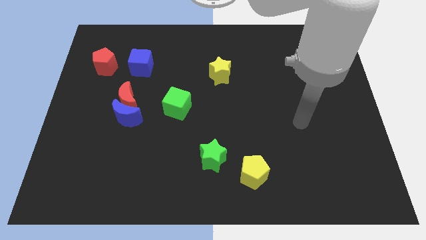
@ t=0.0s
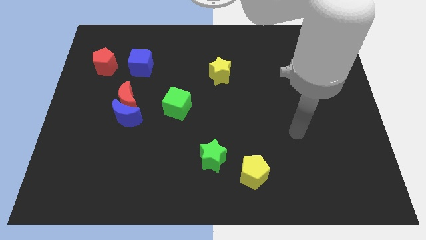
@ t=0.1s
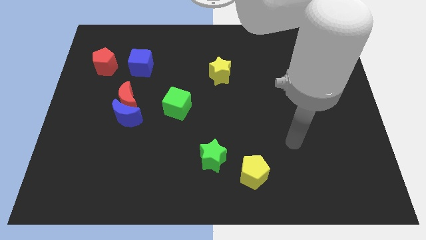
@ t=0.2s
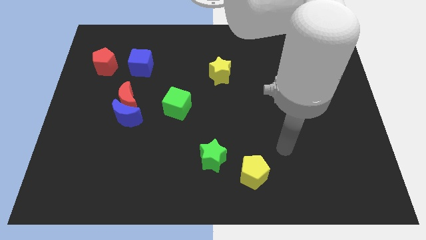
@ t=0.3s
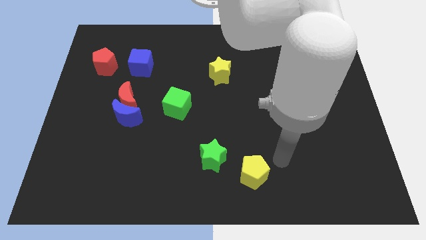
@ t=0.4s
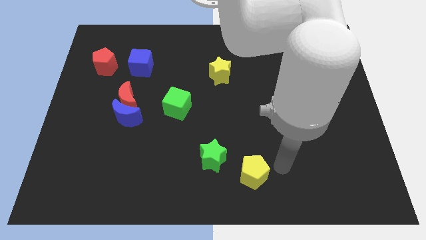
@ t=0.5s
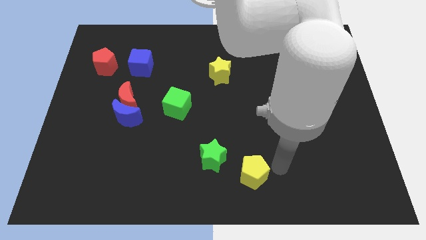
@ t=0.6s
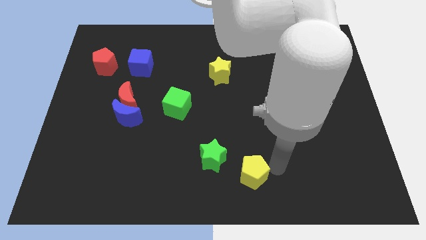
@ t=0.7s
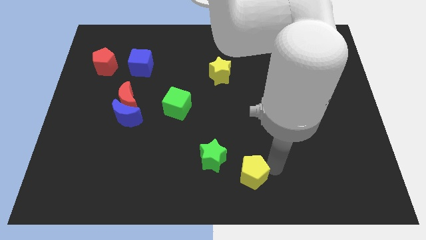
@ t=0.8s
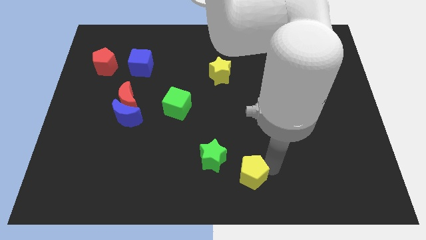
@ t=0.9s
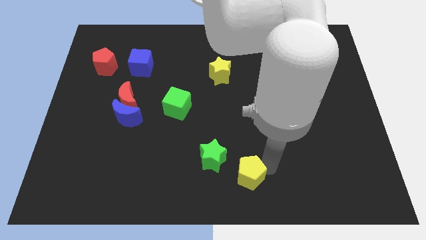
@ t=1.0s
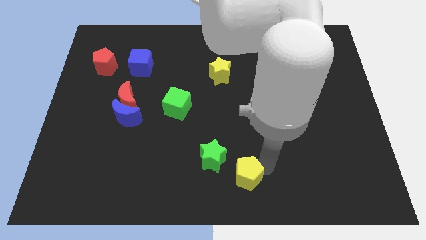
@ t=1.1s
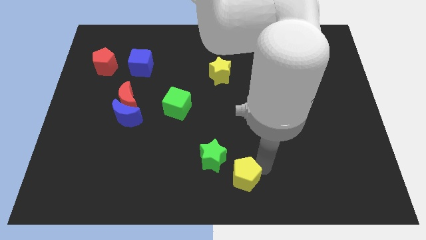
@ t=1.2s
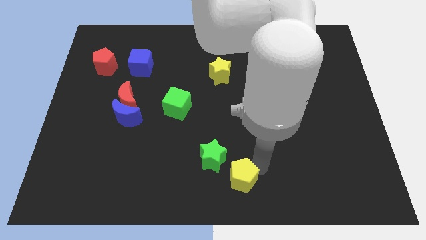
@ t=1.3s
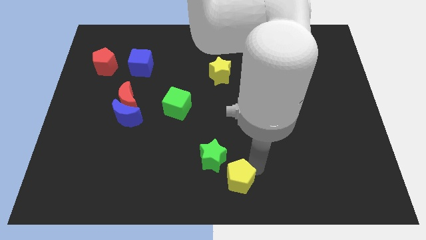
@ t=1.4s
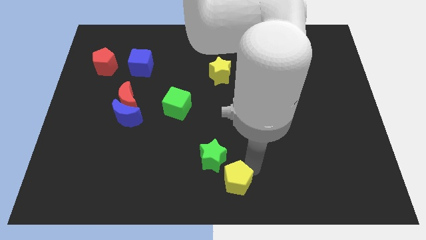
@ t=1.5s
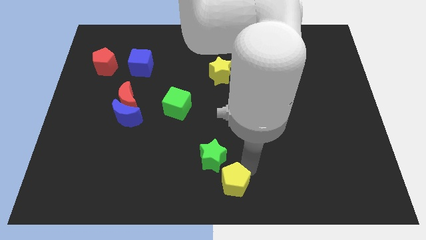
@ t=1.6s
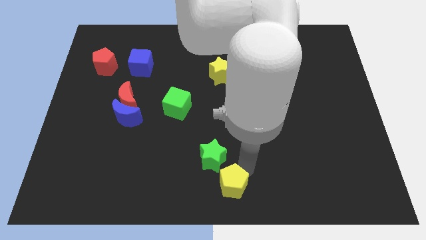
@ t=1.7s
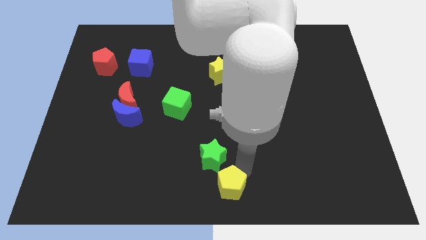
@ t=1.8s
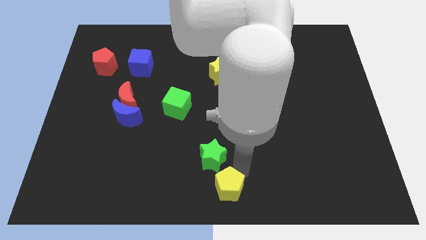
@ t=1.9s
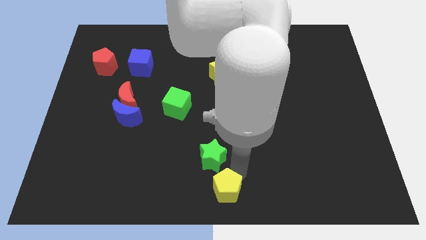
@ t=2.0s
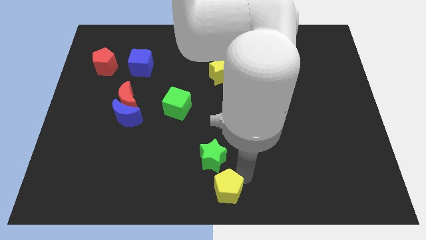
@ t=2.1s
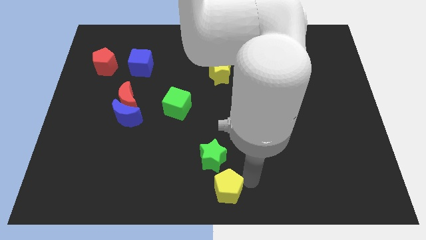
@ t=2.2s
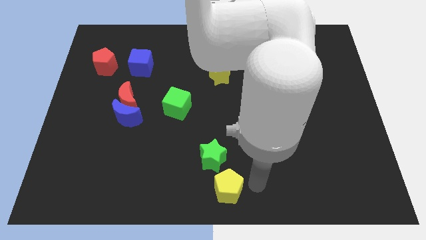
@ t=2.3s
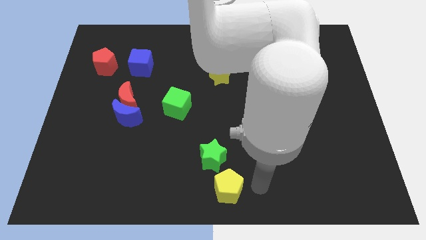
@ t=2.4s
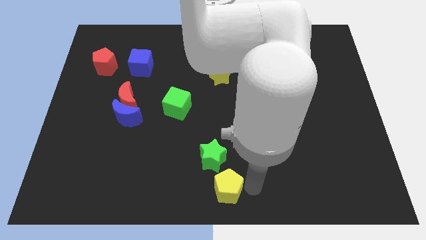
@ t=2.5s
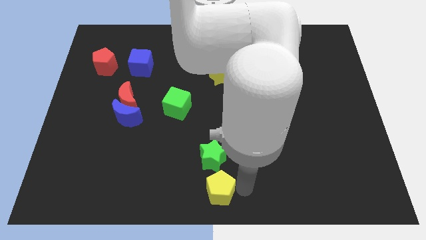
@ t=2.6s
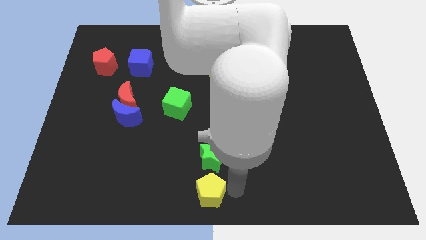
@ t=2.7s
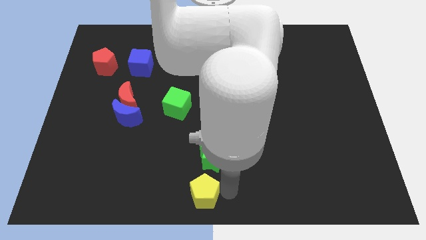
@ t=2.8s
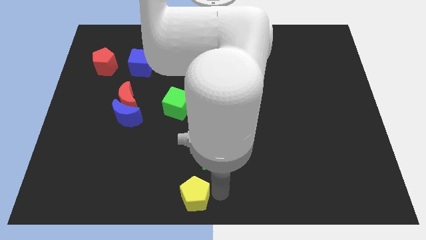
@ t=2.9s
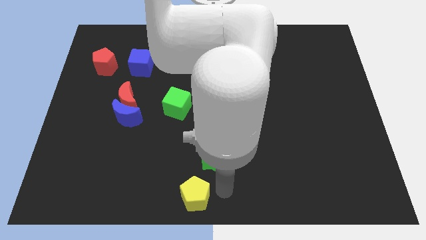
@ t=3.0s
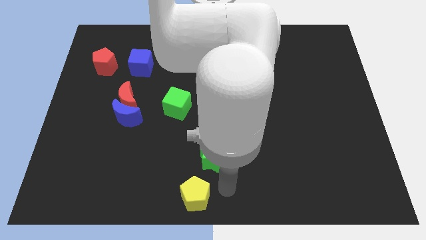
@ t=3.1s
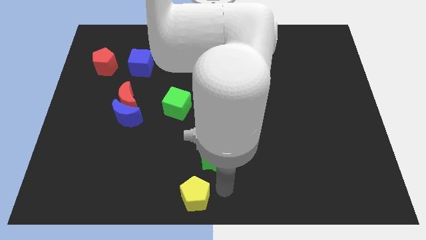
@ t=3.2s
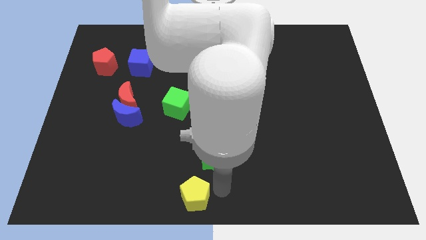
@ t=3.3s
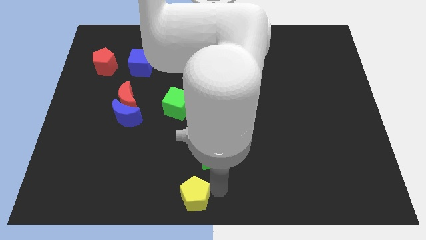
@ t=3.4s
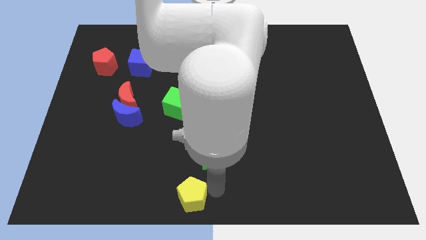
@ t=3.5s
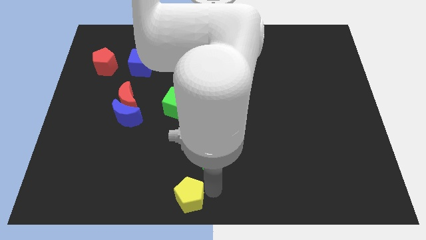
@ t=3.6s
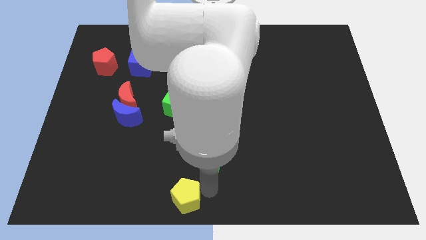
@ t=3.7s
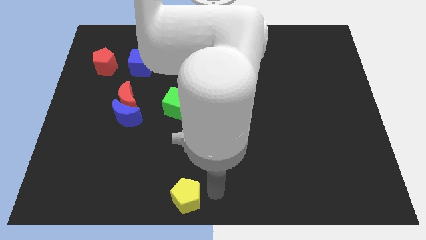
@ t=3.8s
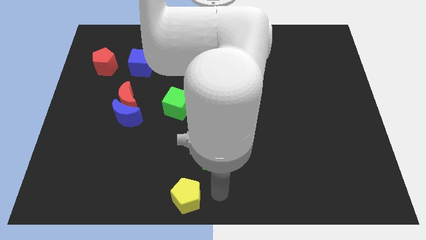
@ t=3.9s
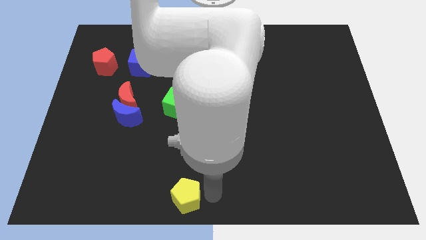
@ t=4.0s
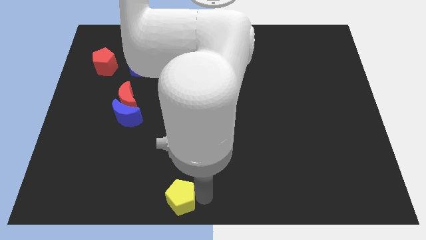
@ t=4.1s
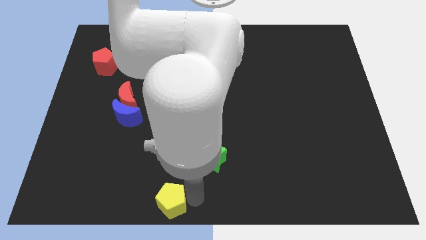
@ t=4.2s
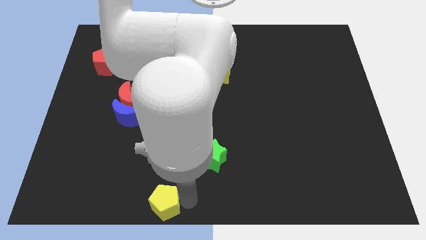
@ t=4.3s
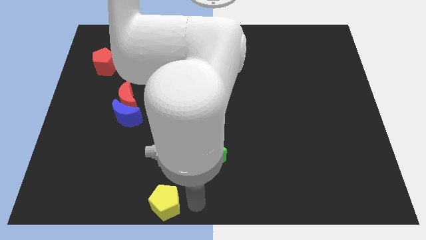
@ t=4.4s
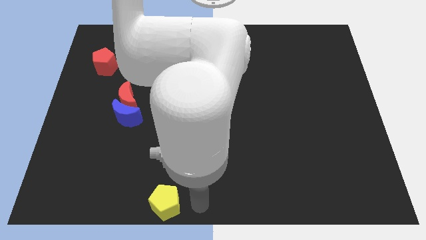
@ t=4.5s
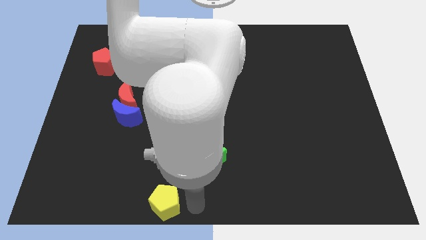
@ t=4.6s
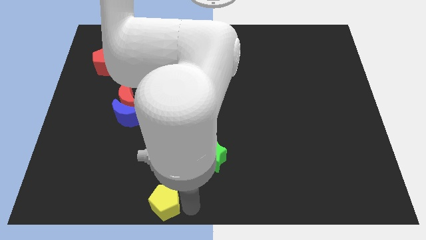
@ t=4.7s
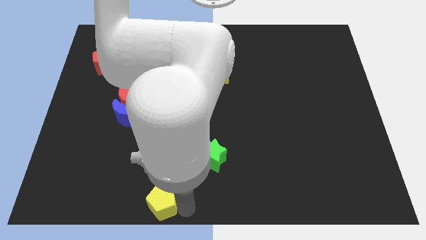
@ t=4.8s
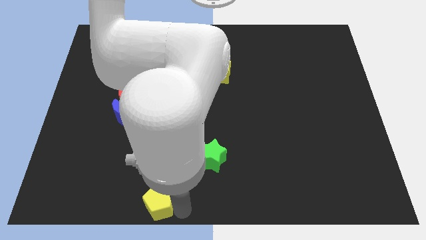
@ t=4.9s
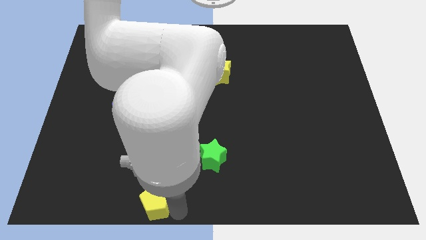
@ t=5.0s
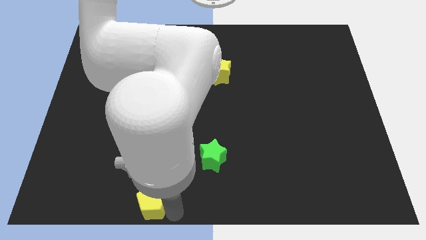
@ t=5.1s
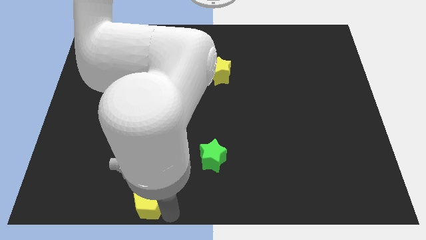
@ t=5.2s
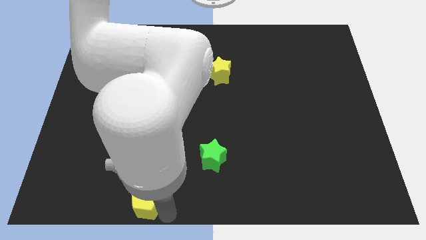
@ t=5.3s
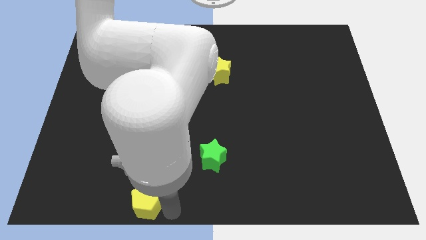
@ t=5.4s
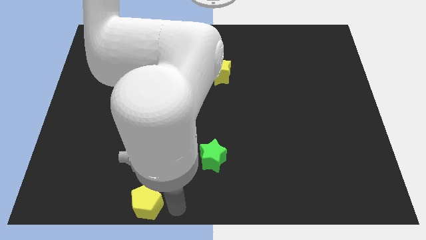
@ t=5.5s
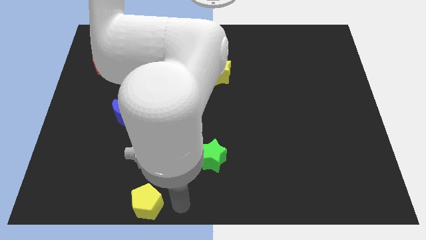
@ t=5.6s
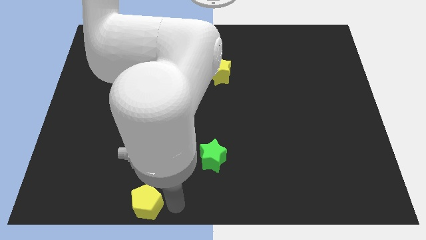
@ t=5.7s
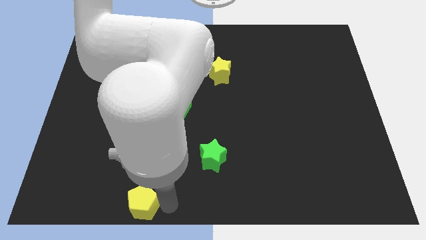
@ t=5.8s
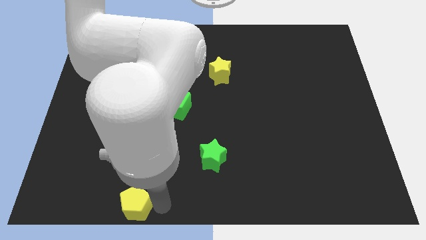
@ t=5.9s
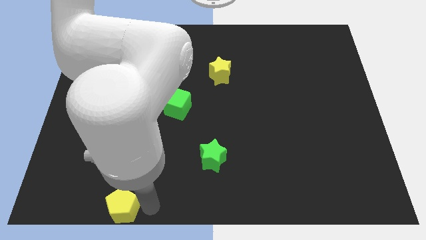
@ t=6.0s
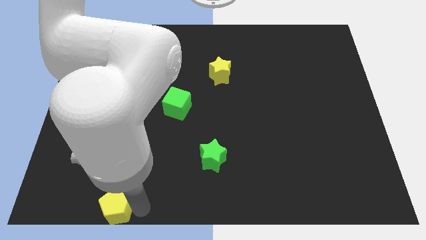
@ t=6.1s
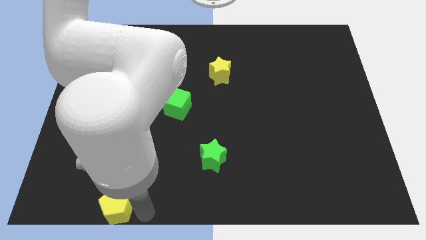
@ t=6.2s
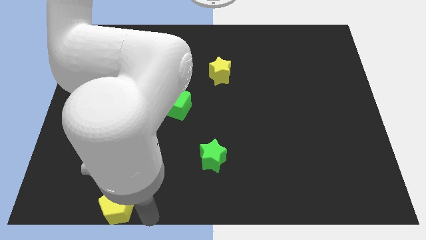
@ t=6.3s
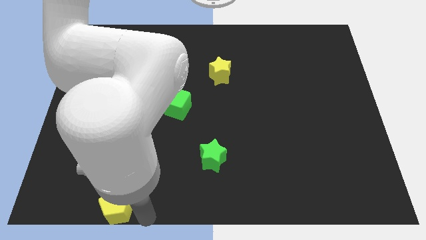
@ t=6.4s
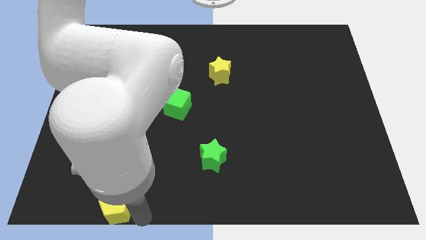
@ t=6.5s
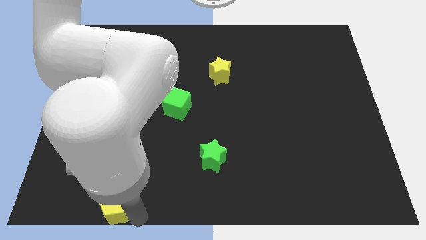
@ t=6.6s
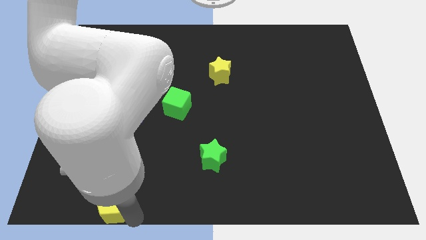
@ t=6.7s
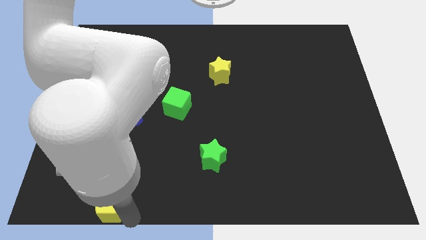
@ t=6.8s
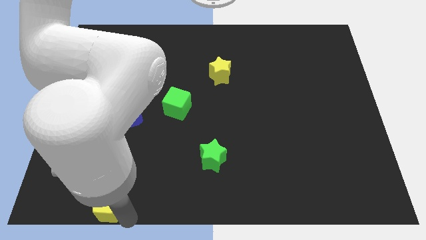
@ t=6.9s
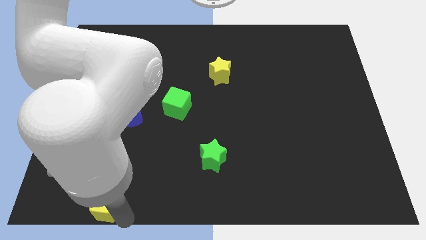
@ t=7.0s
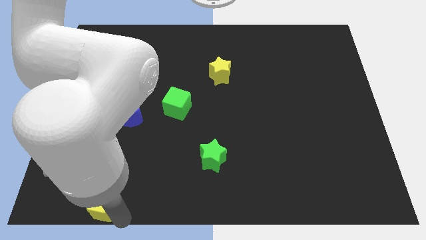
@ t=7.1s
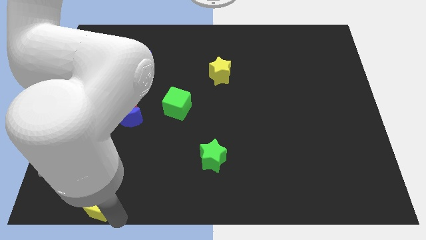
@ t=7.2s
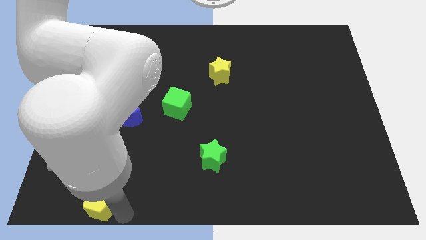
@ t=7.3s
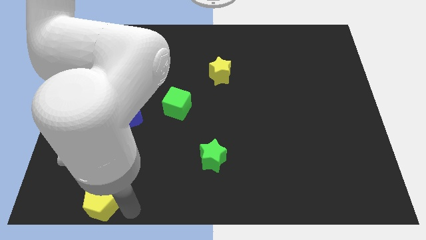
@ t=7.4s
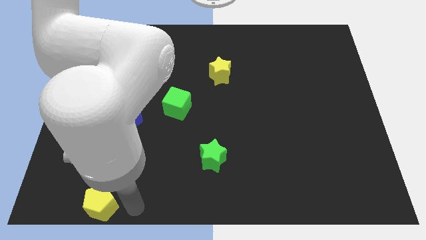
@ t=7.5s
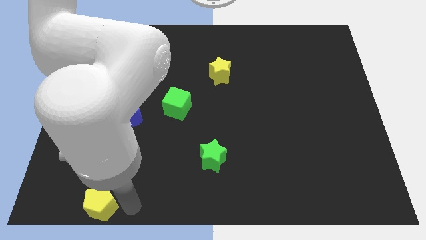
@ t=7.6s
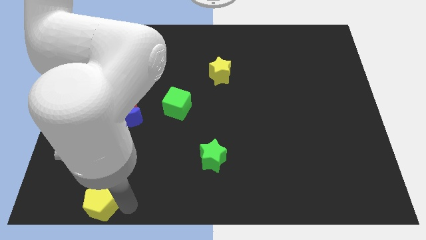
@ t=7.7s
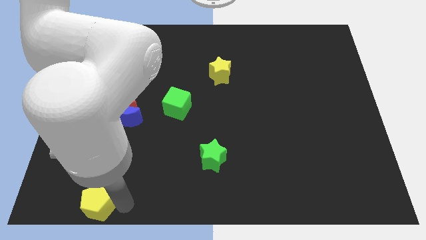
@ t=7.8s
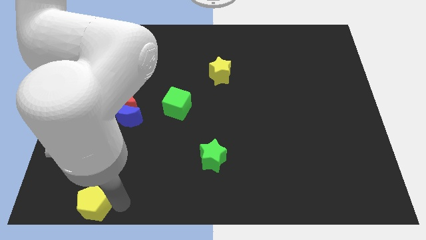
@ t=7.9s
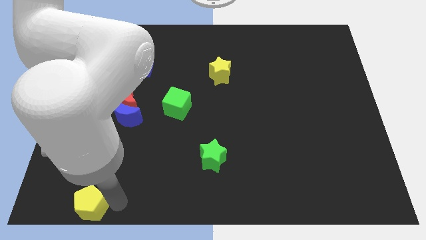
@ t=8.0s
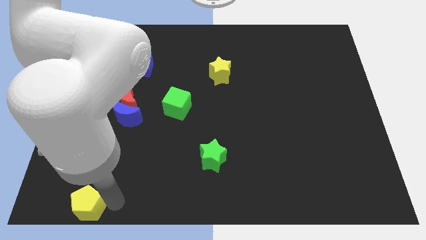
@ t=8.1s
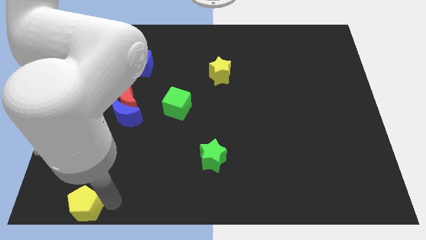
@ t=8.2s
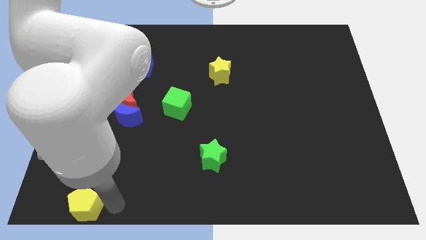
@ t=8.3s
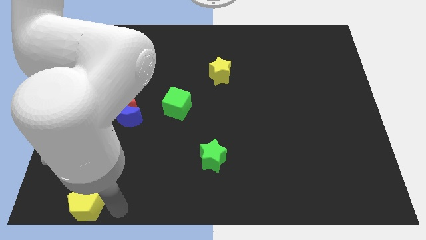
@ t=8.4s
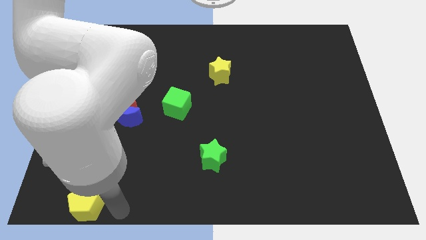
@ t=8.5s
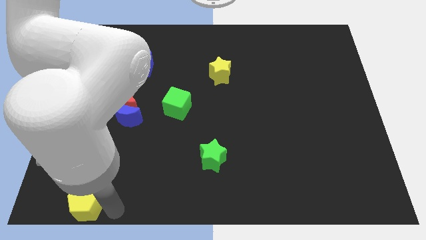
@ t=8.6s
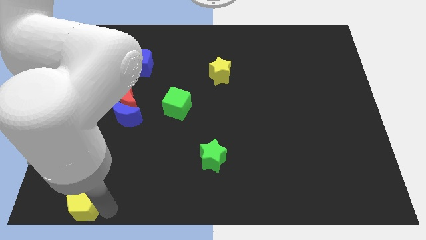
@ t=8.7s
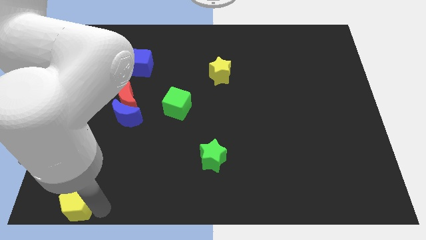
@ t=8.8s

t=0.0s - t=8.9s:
put the yellow pentagon to the bottom left corner
